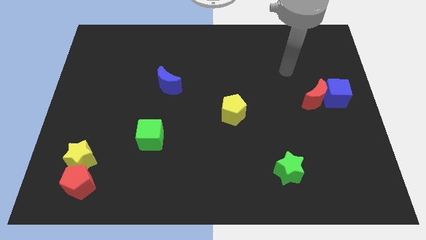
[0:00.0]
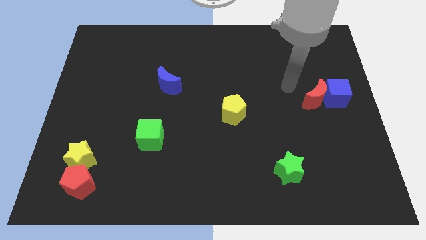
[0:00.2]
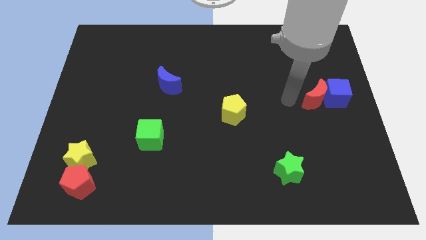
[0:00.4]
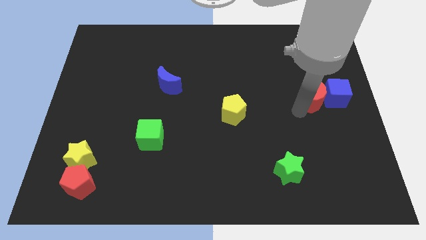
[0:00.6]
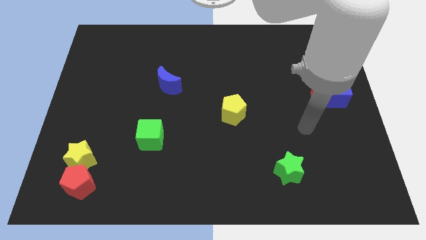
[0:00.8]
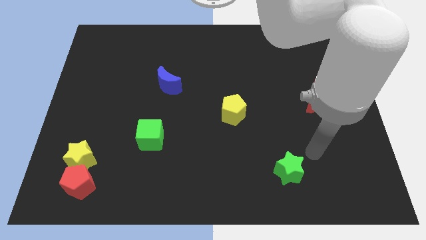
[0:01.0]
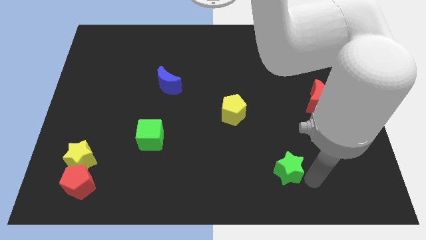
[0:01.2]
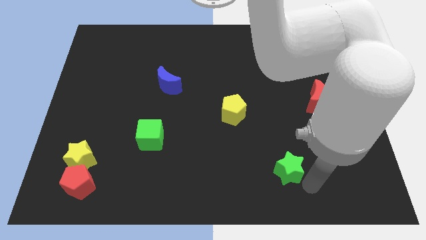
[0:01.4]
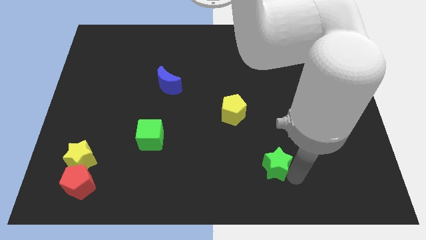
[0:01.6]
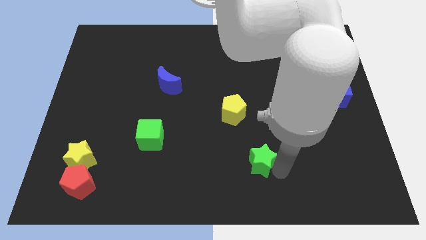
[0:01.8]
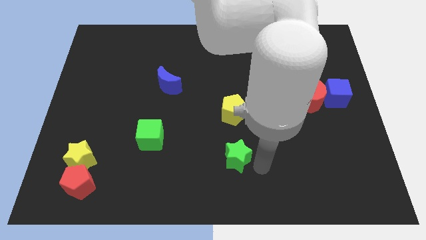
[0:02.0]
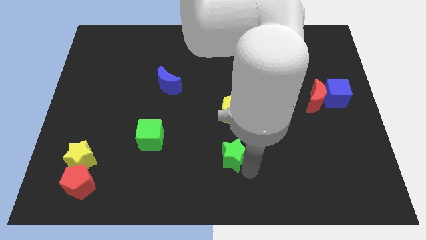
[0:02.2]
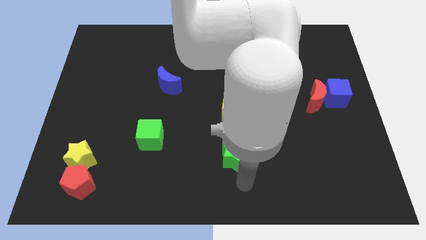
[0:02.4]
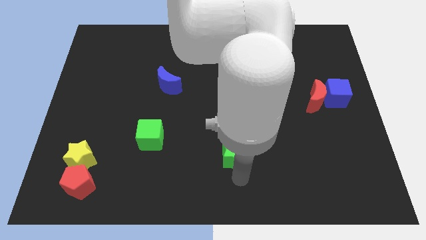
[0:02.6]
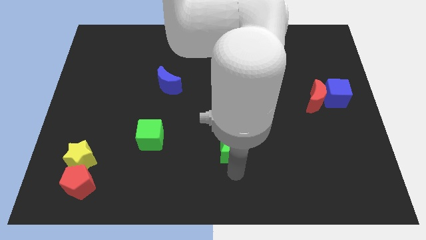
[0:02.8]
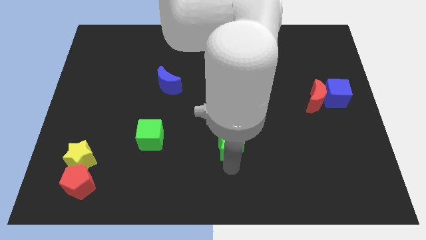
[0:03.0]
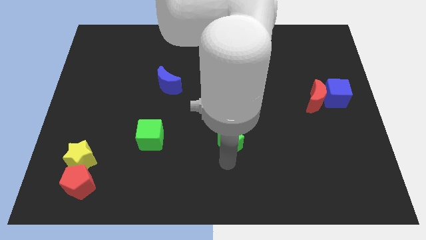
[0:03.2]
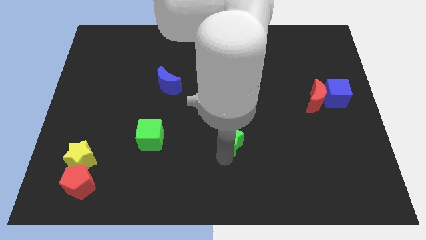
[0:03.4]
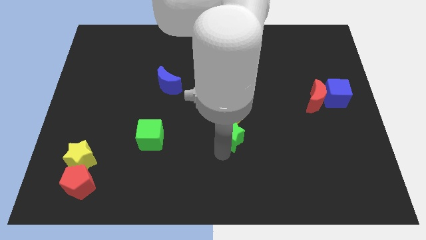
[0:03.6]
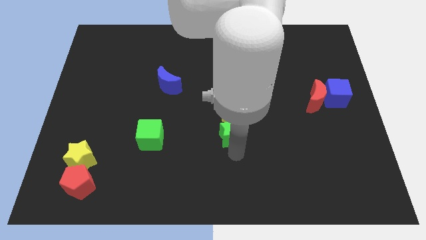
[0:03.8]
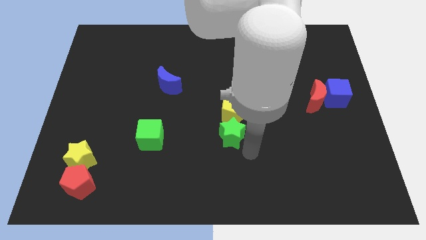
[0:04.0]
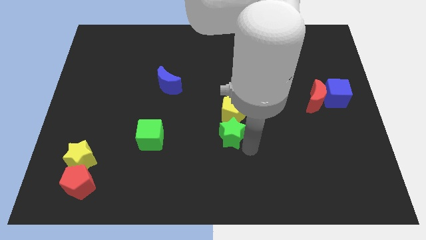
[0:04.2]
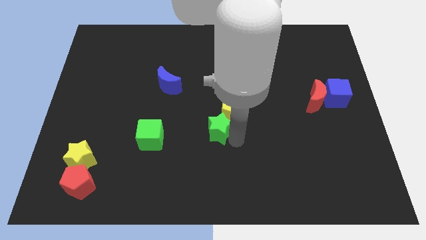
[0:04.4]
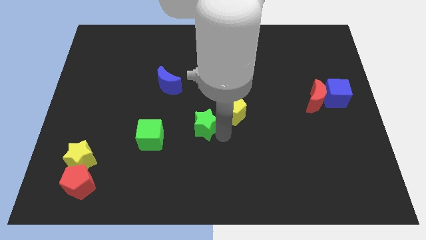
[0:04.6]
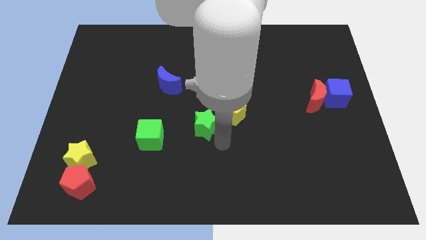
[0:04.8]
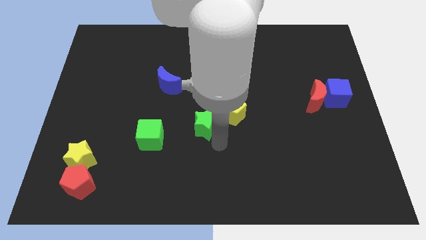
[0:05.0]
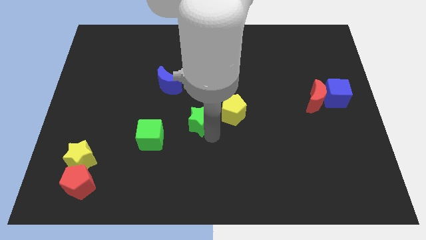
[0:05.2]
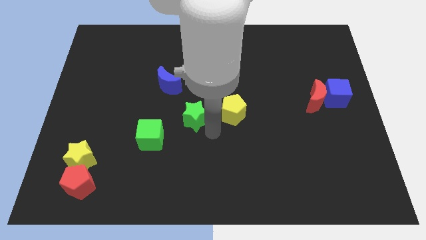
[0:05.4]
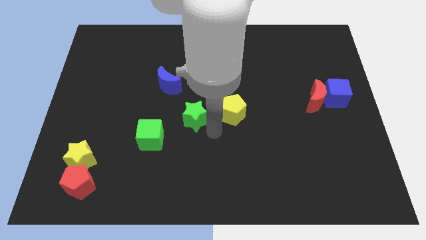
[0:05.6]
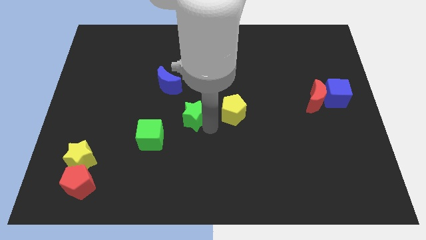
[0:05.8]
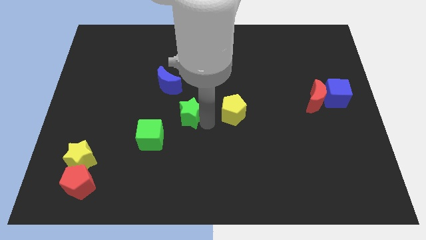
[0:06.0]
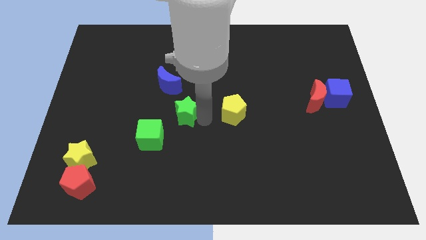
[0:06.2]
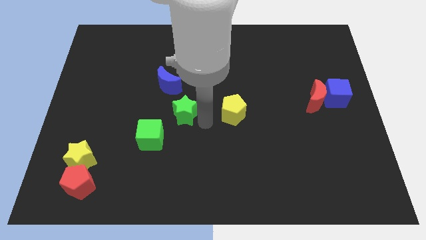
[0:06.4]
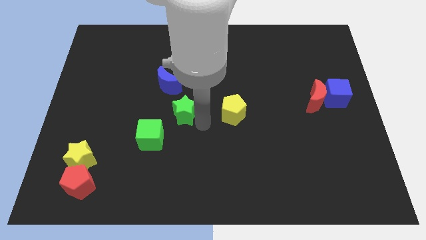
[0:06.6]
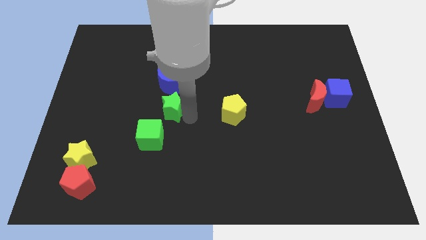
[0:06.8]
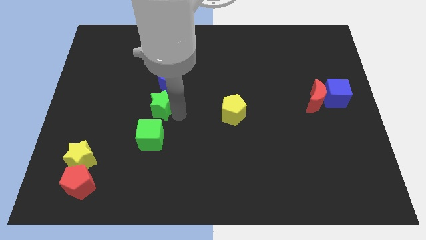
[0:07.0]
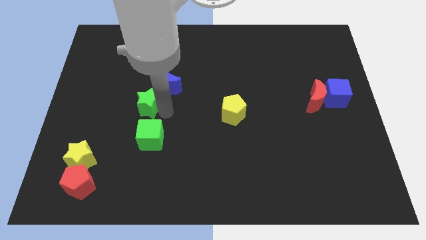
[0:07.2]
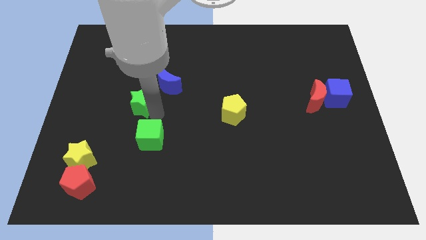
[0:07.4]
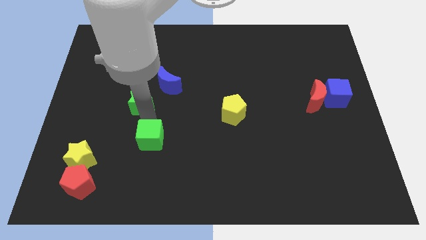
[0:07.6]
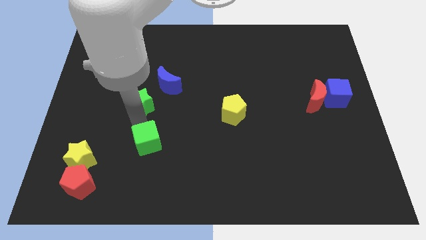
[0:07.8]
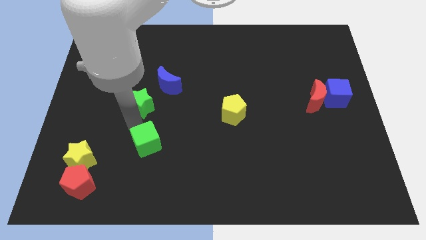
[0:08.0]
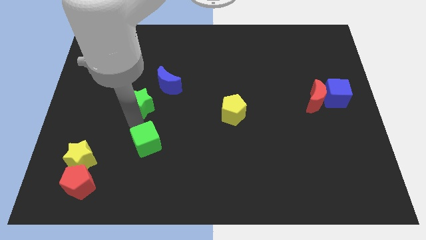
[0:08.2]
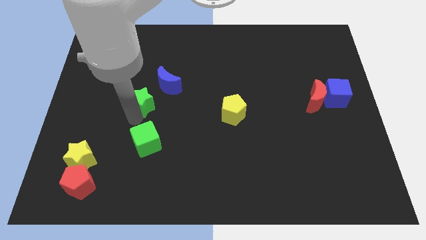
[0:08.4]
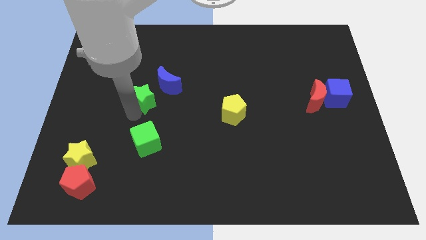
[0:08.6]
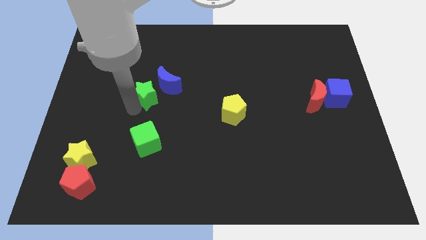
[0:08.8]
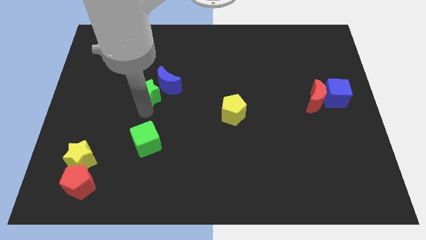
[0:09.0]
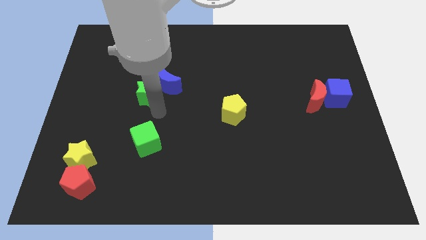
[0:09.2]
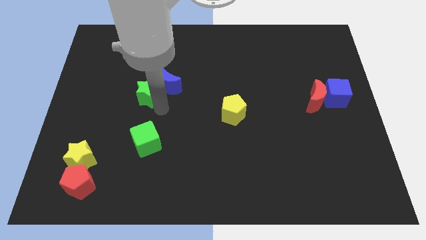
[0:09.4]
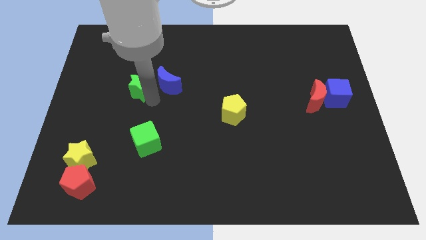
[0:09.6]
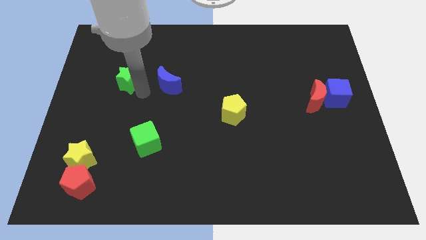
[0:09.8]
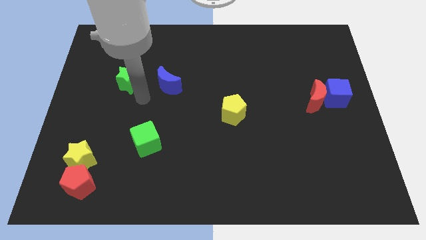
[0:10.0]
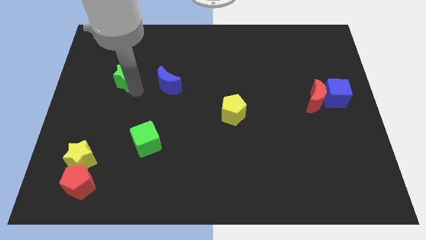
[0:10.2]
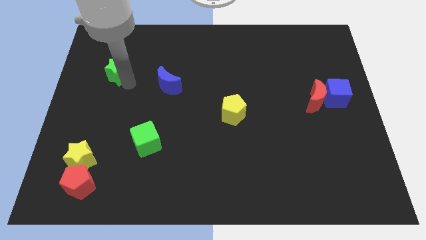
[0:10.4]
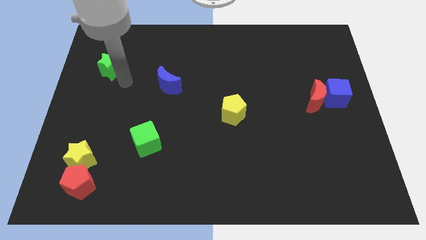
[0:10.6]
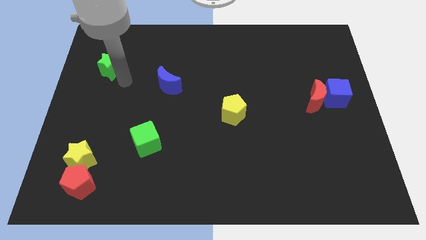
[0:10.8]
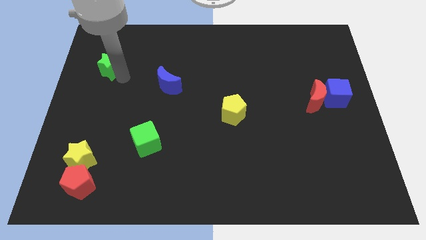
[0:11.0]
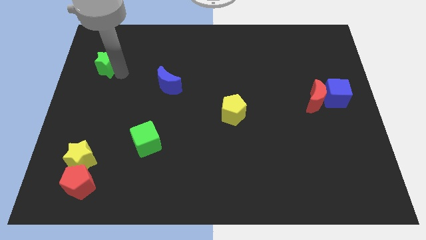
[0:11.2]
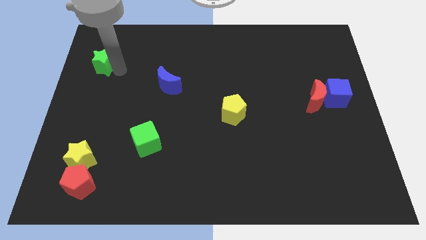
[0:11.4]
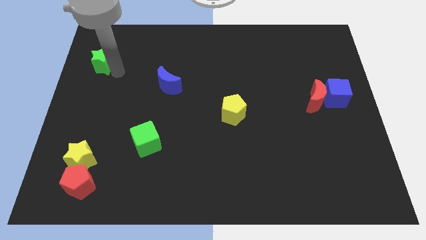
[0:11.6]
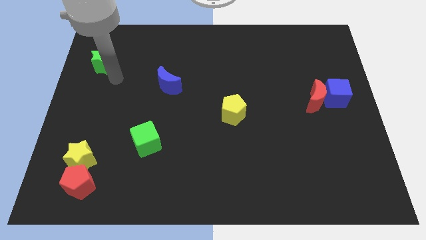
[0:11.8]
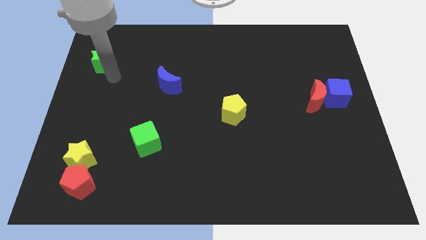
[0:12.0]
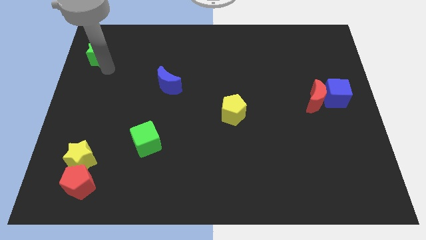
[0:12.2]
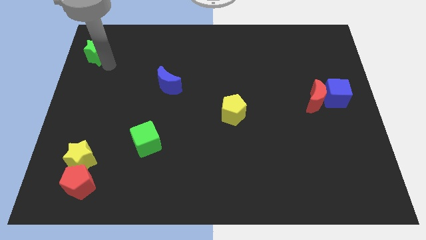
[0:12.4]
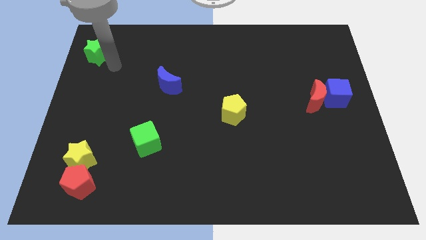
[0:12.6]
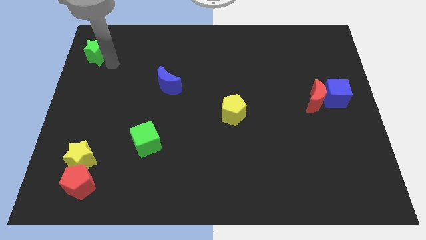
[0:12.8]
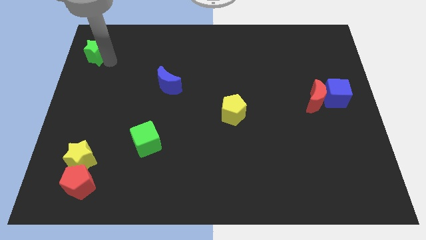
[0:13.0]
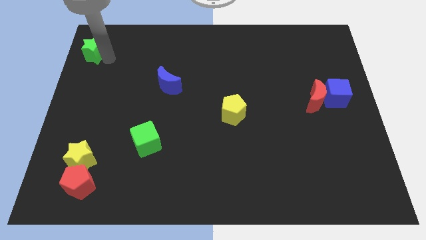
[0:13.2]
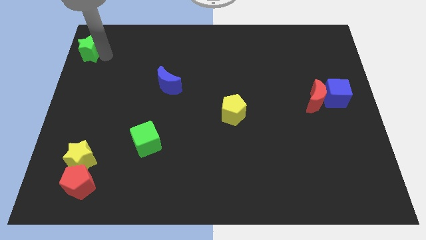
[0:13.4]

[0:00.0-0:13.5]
move the green star to the top left of the board
